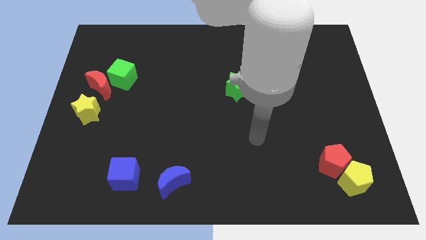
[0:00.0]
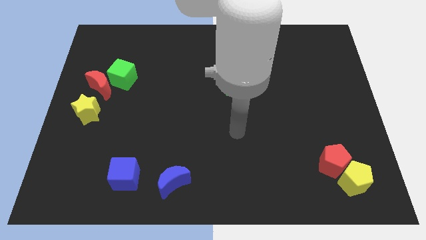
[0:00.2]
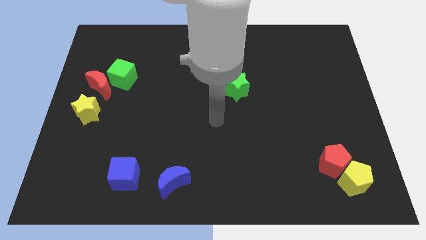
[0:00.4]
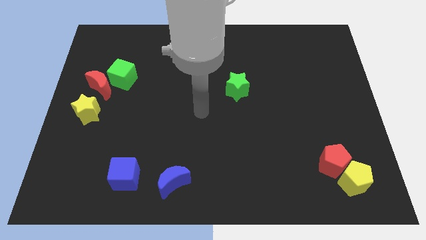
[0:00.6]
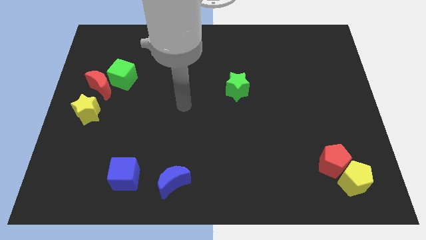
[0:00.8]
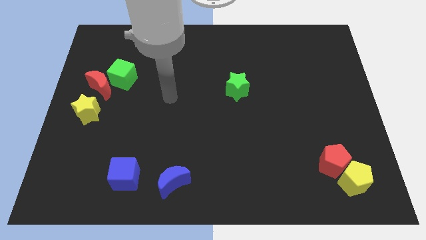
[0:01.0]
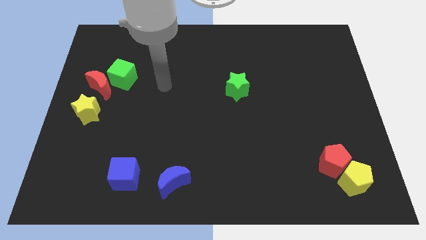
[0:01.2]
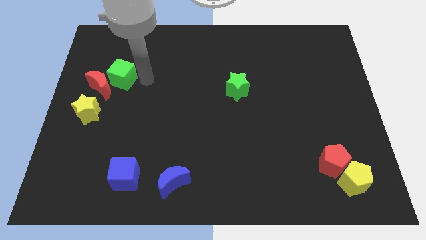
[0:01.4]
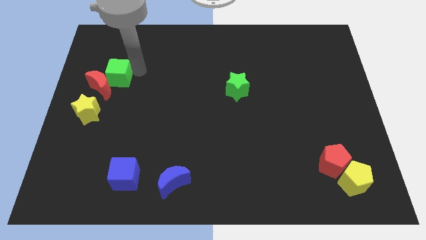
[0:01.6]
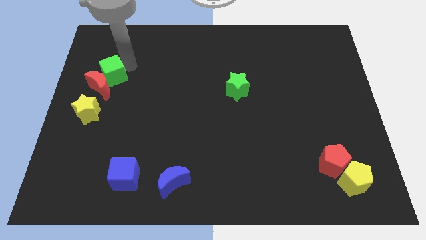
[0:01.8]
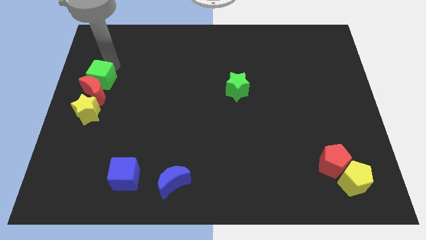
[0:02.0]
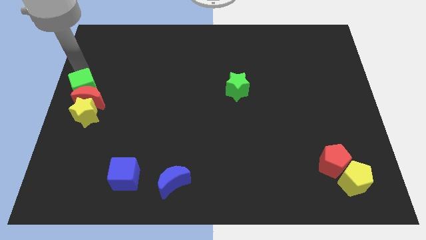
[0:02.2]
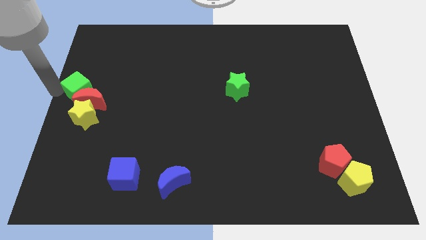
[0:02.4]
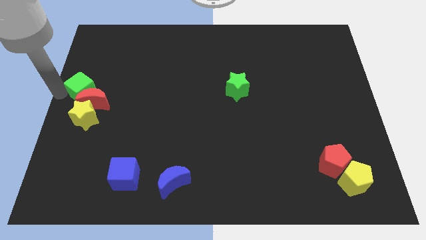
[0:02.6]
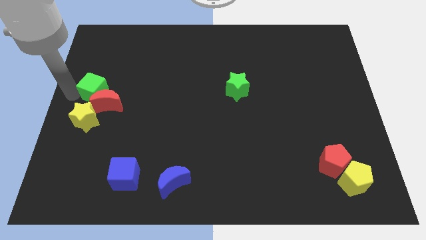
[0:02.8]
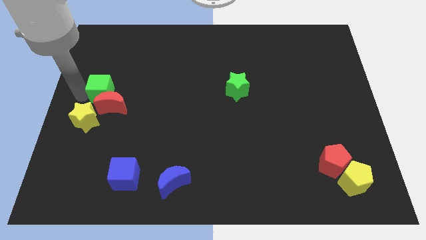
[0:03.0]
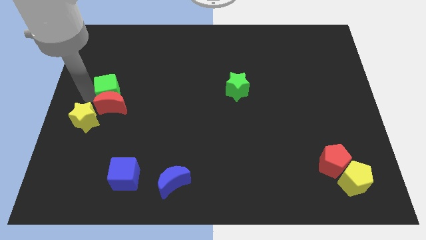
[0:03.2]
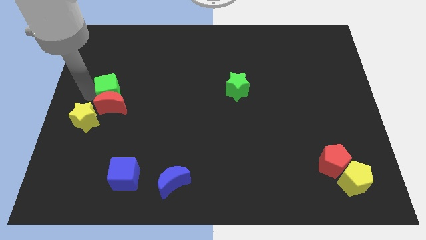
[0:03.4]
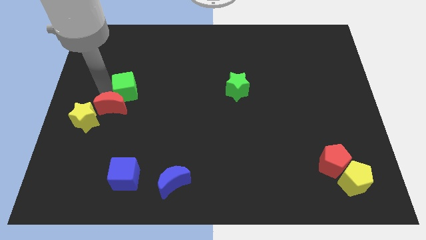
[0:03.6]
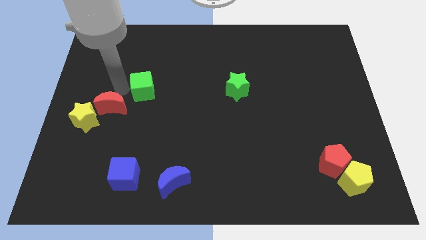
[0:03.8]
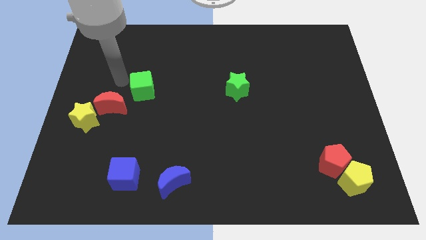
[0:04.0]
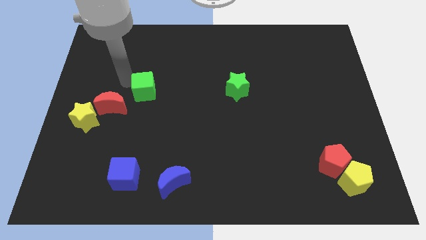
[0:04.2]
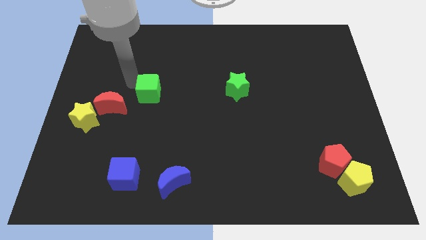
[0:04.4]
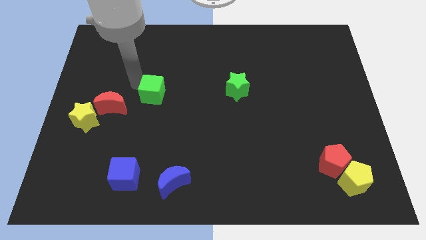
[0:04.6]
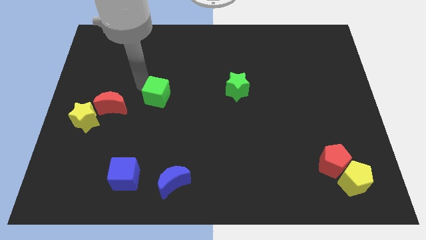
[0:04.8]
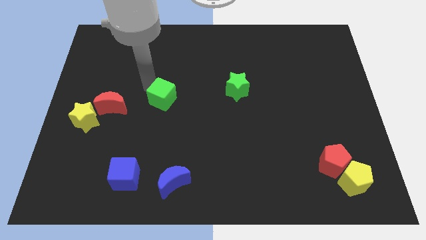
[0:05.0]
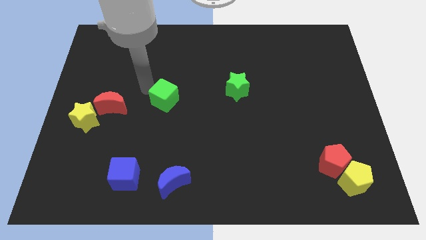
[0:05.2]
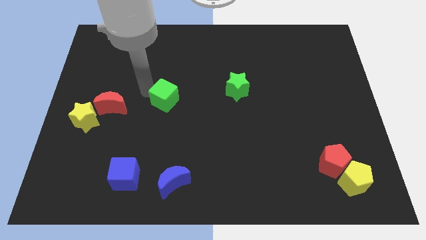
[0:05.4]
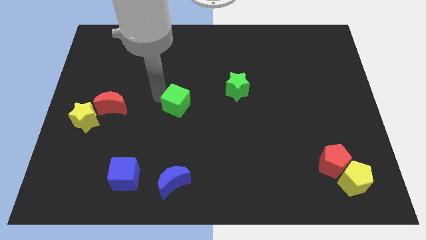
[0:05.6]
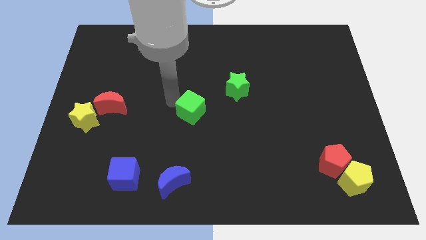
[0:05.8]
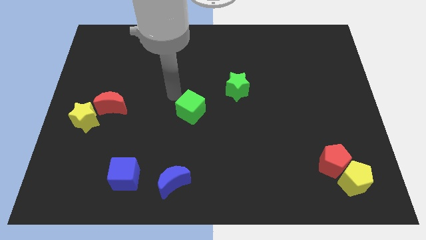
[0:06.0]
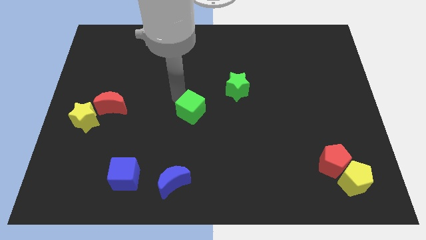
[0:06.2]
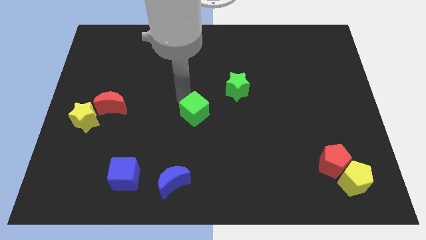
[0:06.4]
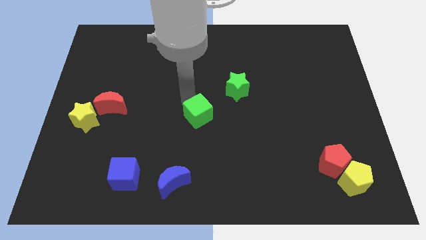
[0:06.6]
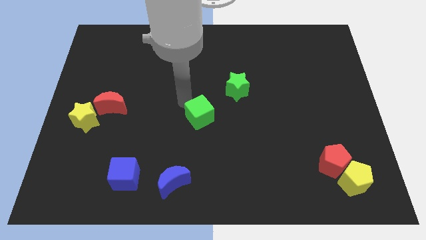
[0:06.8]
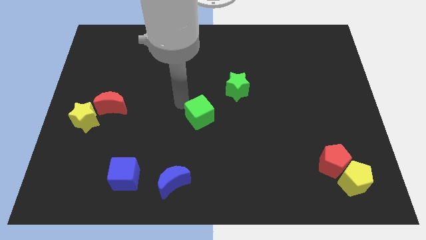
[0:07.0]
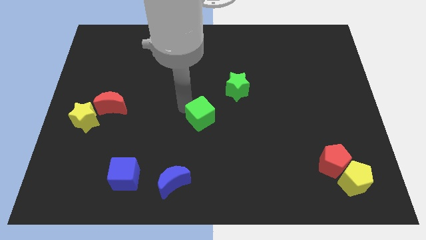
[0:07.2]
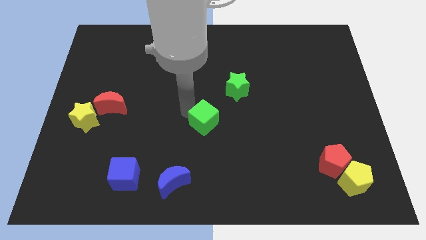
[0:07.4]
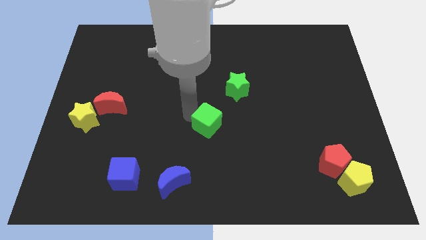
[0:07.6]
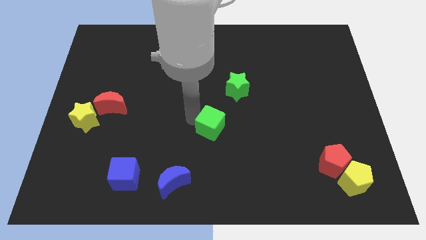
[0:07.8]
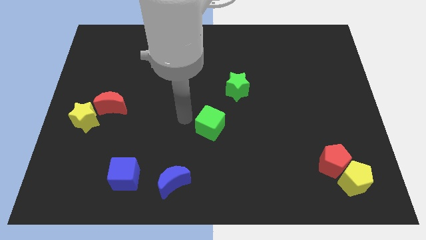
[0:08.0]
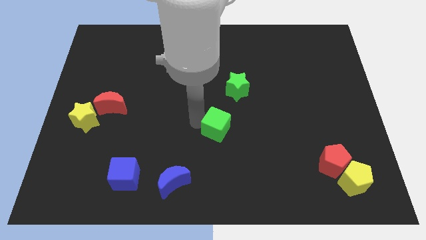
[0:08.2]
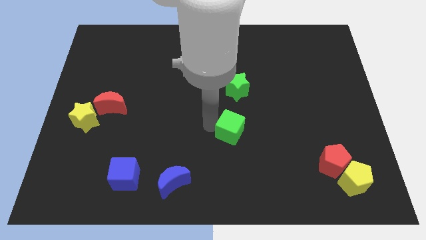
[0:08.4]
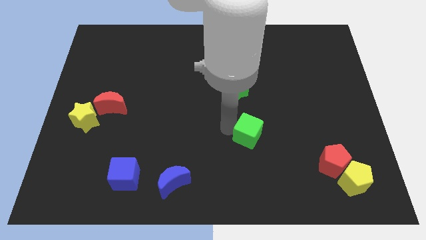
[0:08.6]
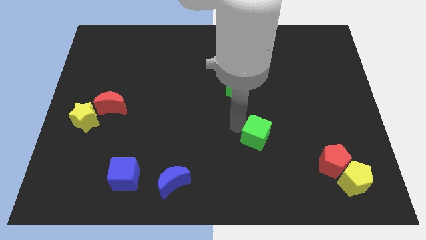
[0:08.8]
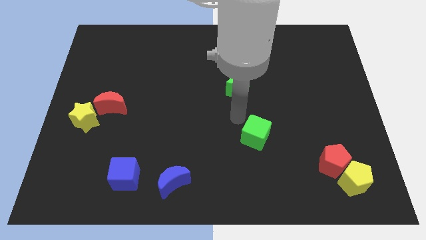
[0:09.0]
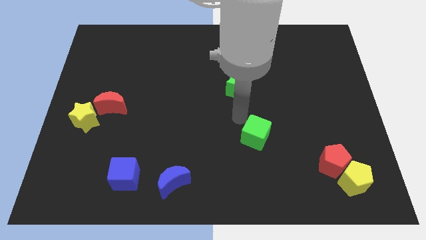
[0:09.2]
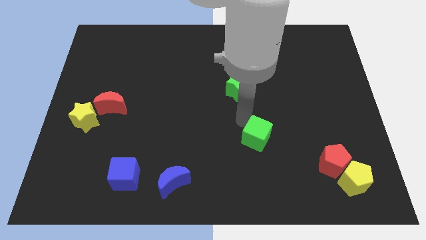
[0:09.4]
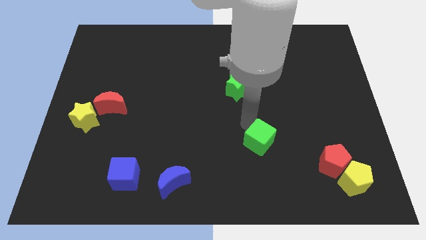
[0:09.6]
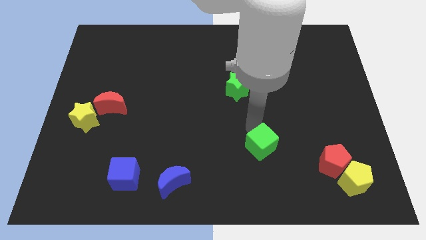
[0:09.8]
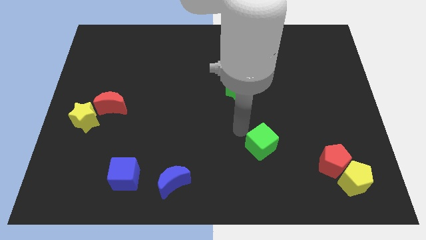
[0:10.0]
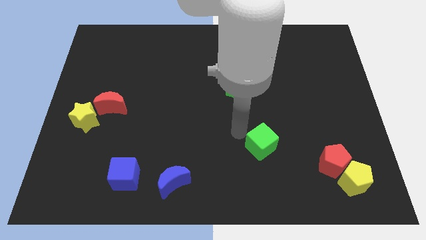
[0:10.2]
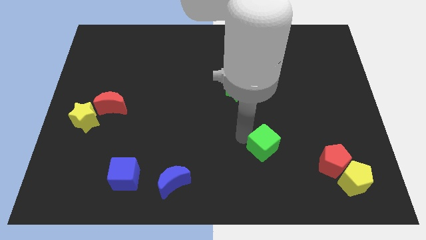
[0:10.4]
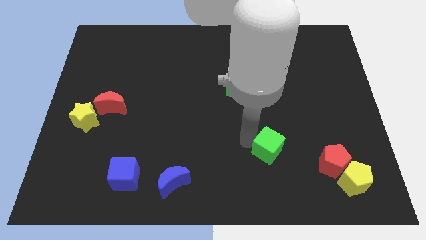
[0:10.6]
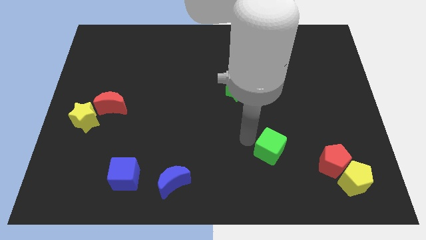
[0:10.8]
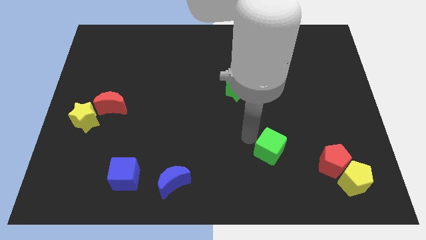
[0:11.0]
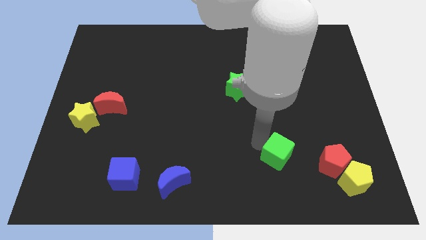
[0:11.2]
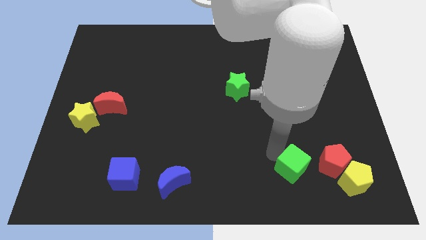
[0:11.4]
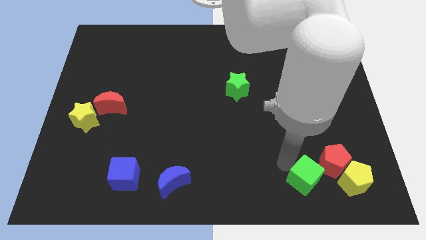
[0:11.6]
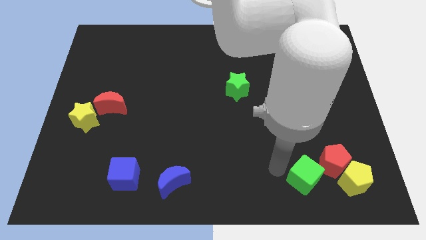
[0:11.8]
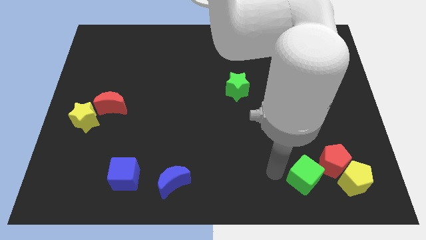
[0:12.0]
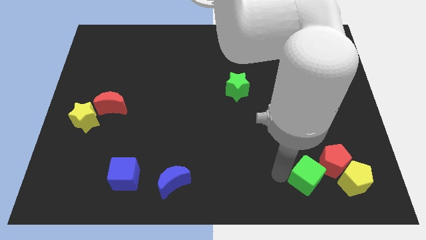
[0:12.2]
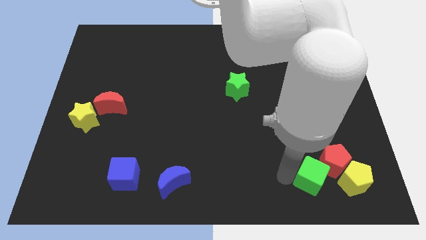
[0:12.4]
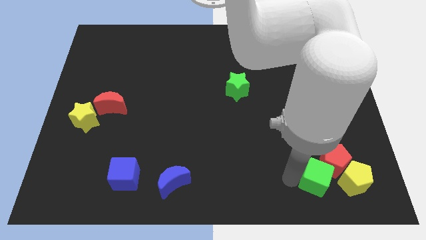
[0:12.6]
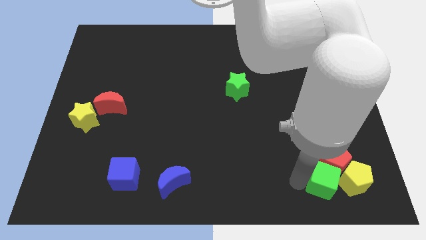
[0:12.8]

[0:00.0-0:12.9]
put the green cube towards the yellow pentagon

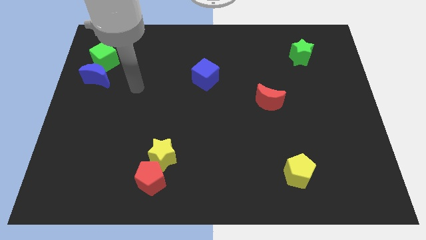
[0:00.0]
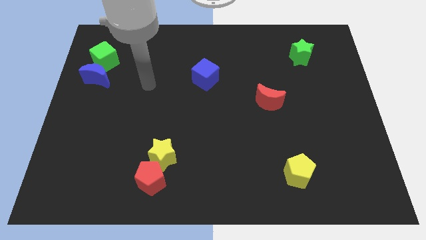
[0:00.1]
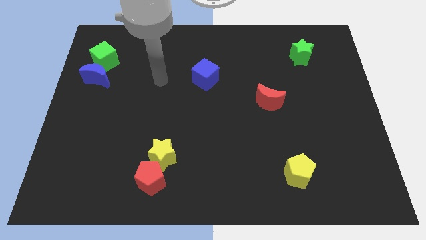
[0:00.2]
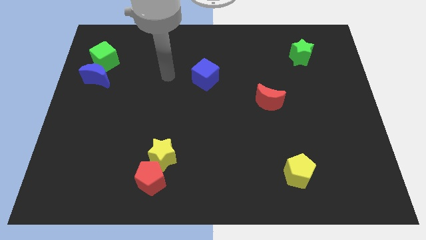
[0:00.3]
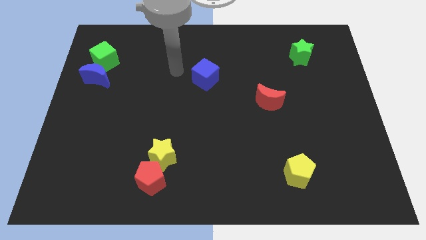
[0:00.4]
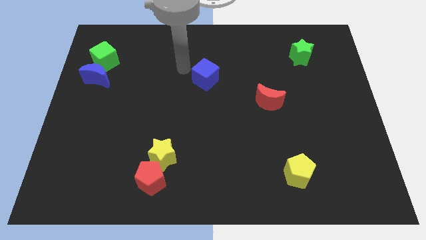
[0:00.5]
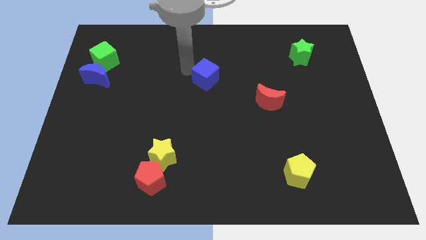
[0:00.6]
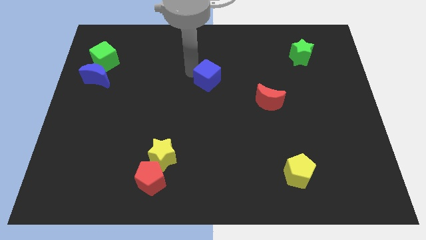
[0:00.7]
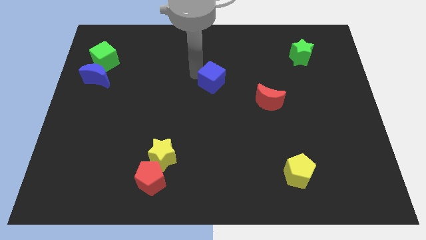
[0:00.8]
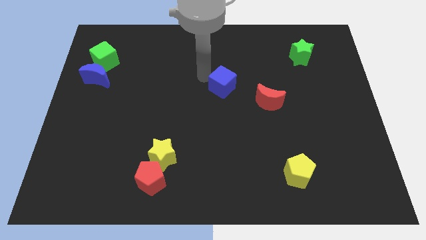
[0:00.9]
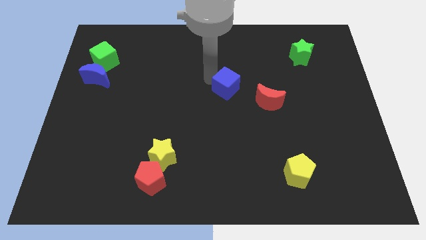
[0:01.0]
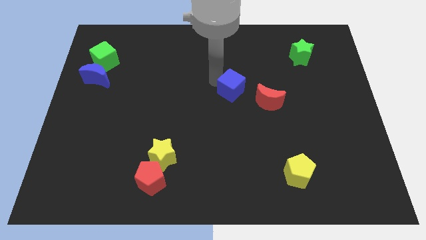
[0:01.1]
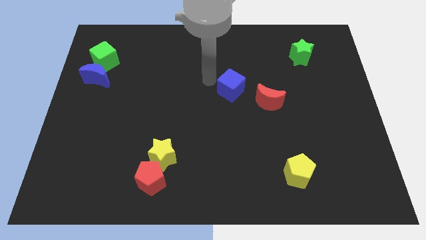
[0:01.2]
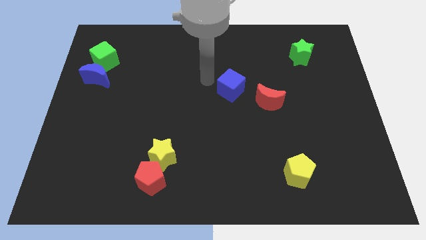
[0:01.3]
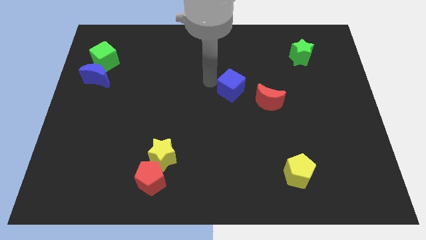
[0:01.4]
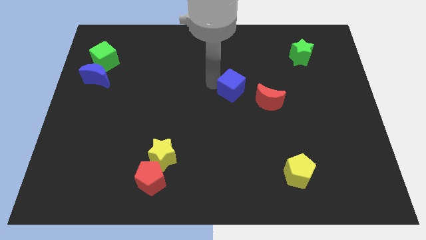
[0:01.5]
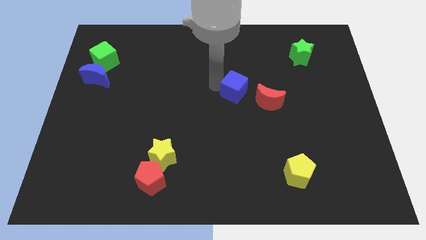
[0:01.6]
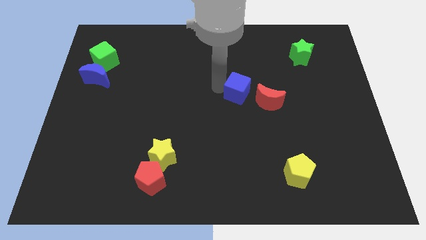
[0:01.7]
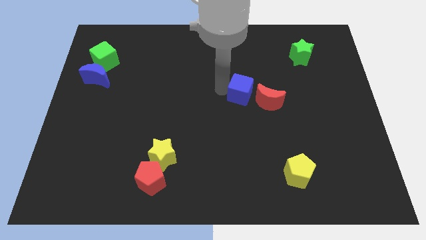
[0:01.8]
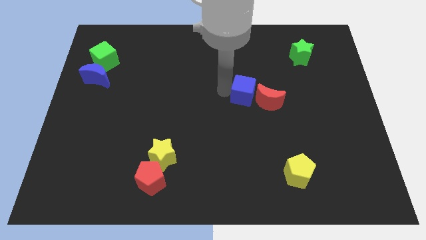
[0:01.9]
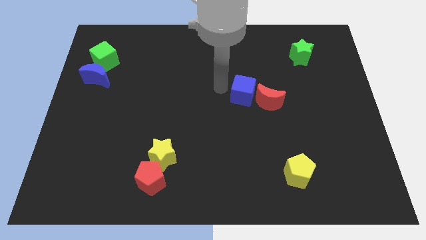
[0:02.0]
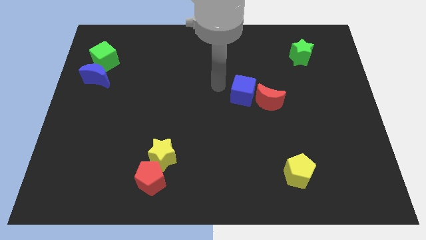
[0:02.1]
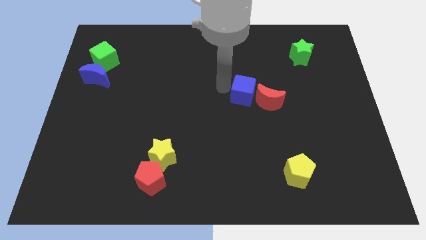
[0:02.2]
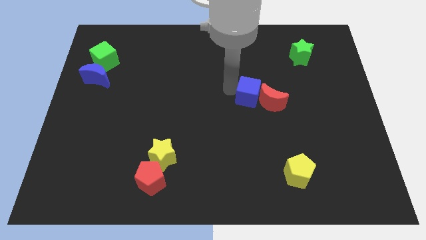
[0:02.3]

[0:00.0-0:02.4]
push the blue cube close to the red moon
